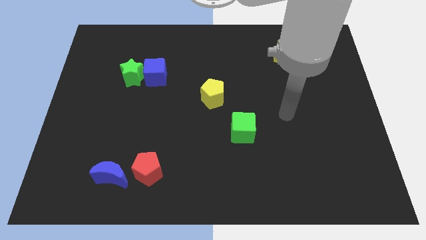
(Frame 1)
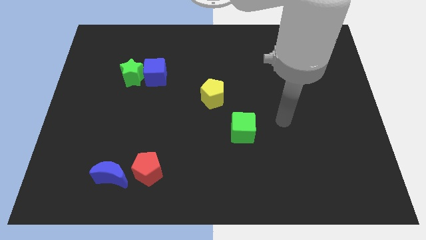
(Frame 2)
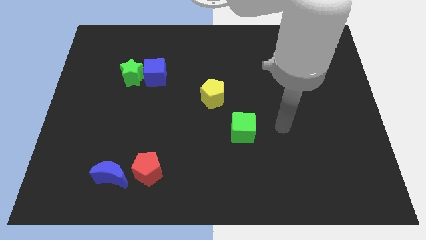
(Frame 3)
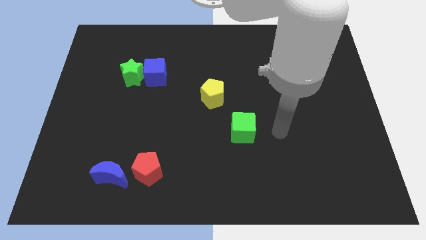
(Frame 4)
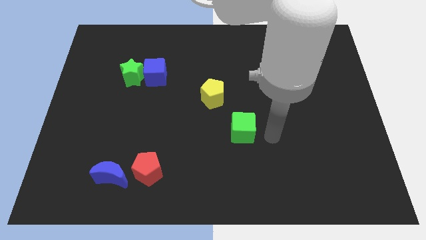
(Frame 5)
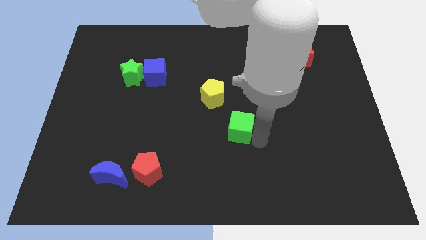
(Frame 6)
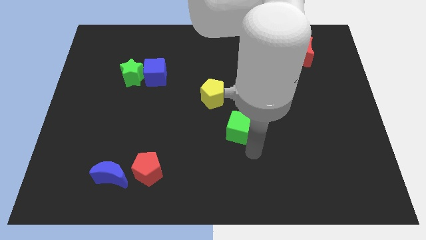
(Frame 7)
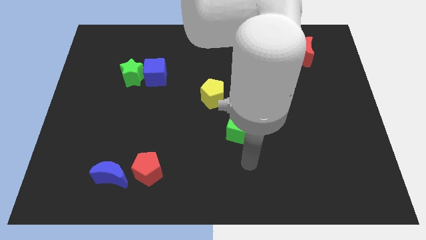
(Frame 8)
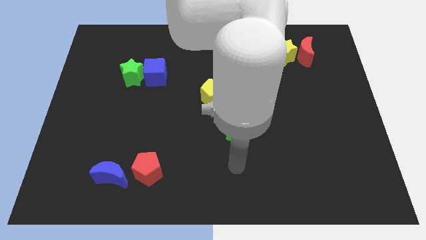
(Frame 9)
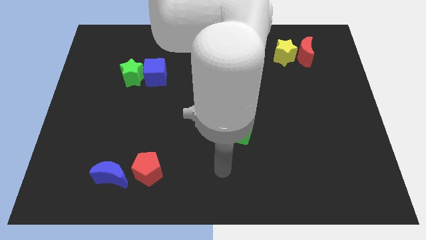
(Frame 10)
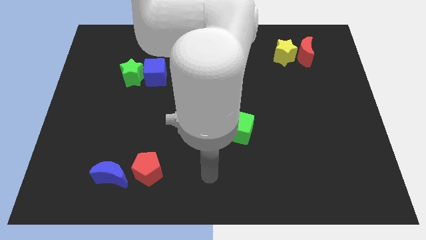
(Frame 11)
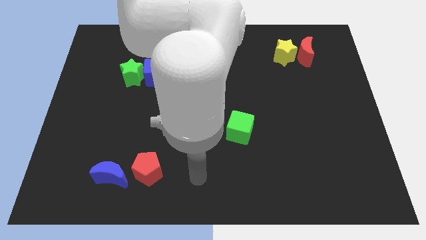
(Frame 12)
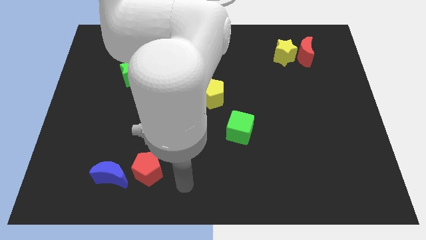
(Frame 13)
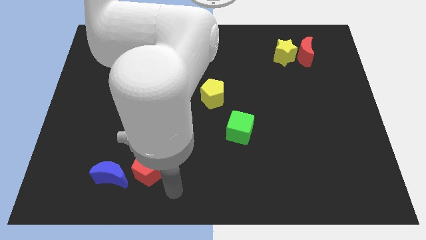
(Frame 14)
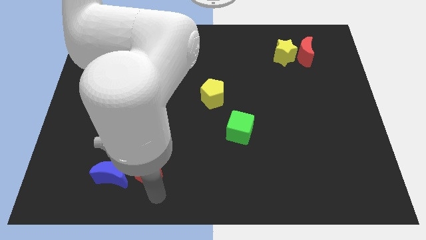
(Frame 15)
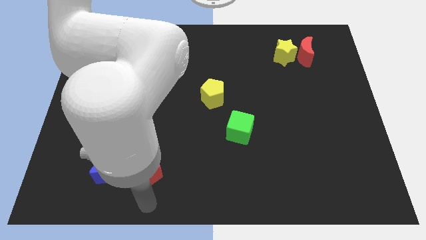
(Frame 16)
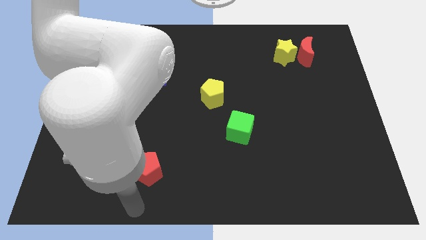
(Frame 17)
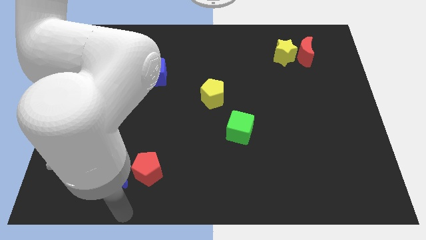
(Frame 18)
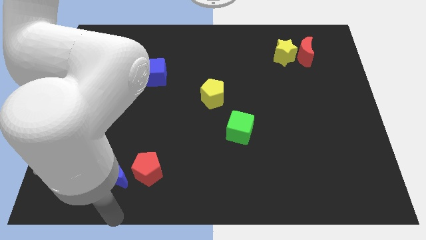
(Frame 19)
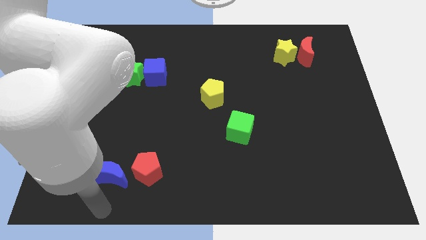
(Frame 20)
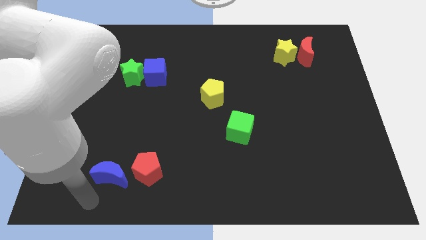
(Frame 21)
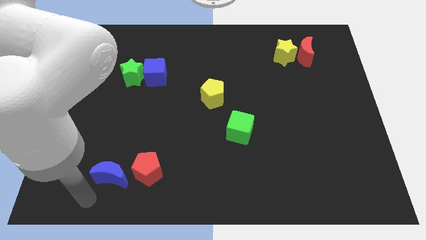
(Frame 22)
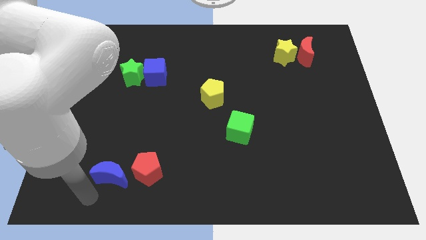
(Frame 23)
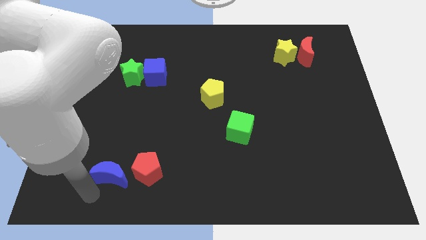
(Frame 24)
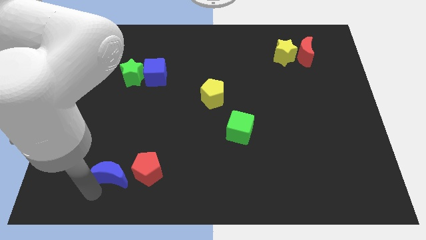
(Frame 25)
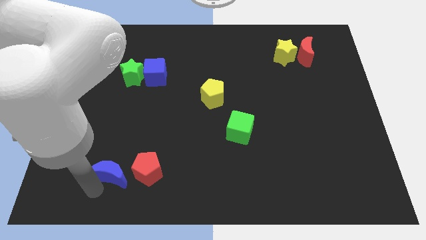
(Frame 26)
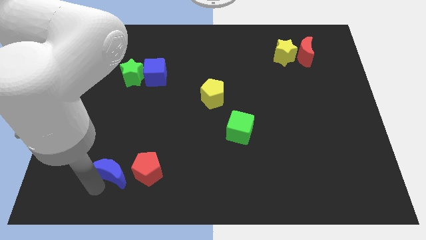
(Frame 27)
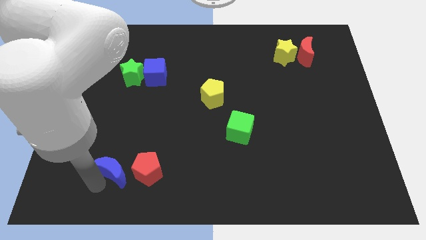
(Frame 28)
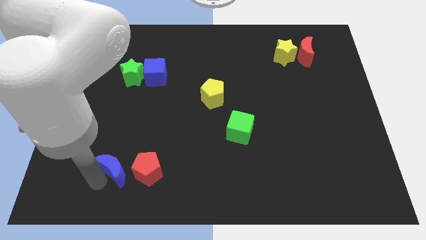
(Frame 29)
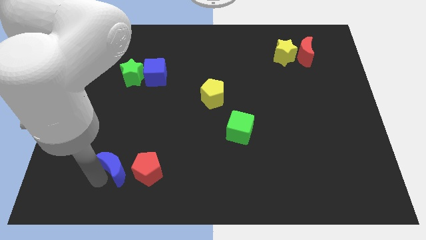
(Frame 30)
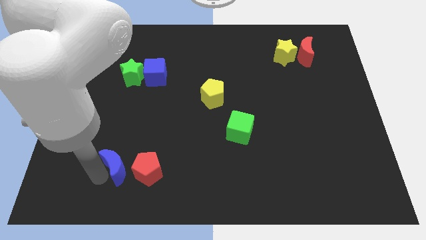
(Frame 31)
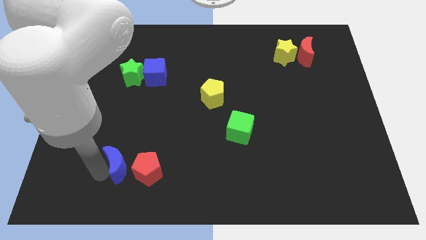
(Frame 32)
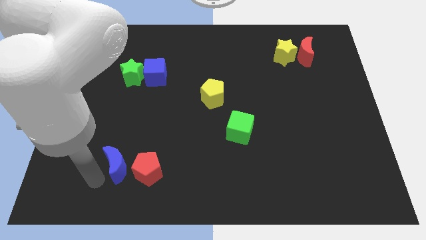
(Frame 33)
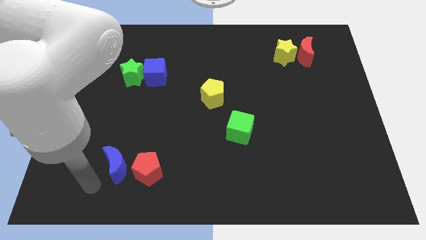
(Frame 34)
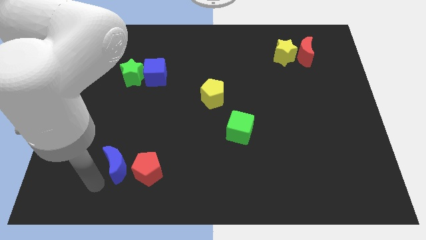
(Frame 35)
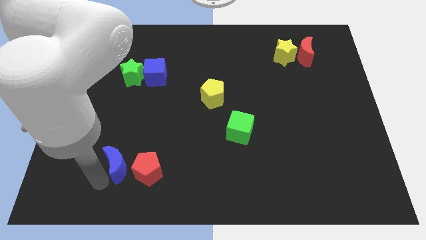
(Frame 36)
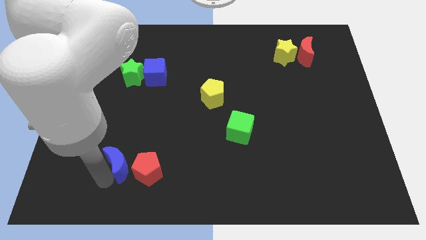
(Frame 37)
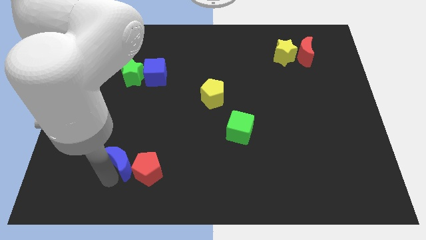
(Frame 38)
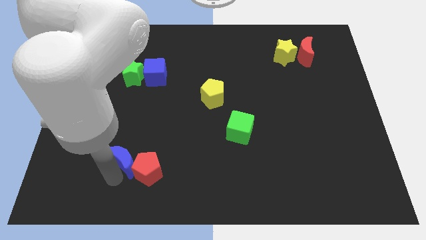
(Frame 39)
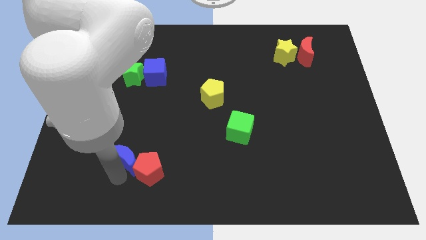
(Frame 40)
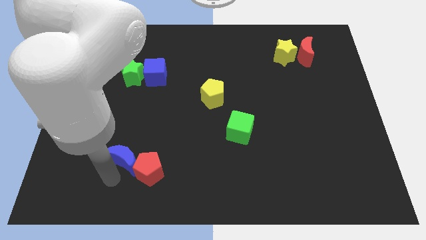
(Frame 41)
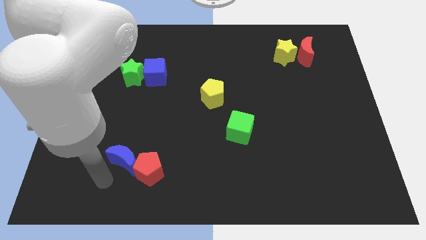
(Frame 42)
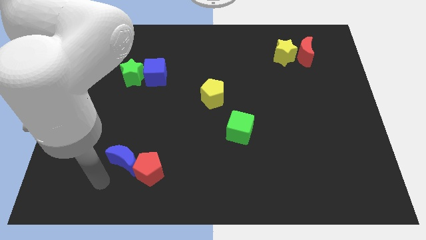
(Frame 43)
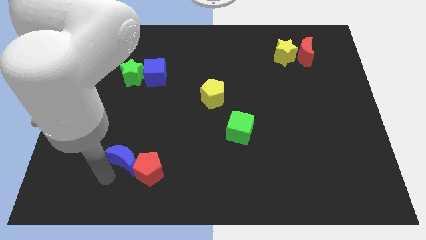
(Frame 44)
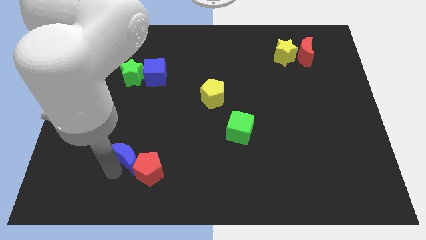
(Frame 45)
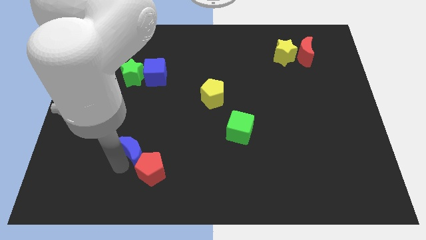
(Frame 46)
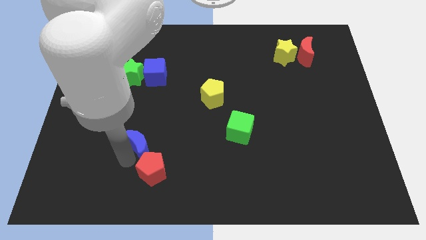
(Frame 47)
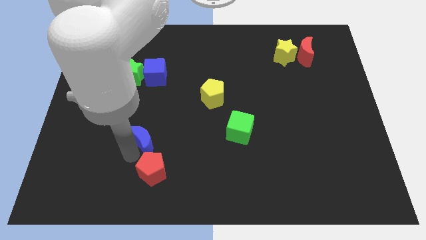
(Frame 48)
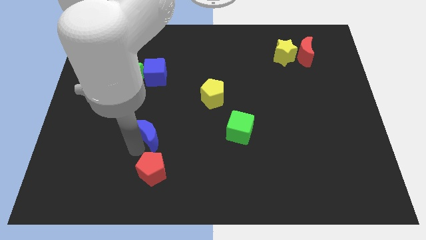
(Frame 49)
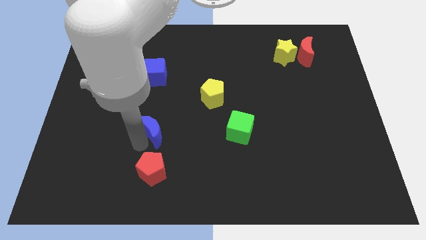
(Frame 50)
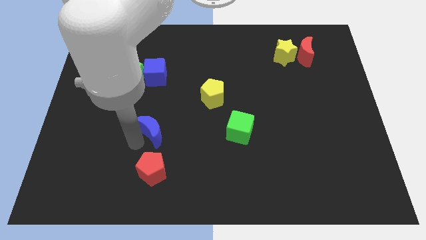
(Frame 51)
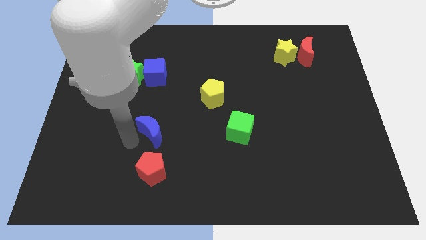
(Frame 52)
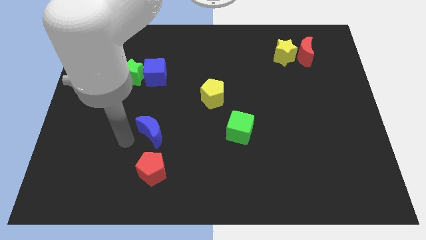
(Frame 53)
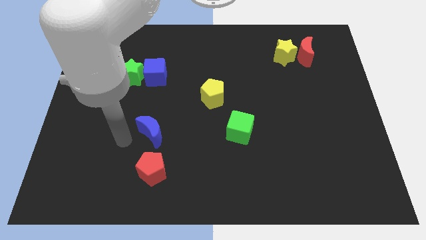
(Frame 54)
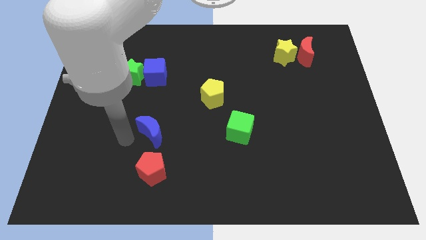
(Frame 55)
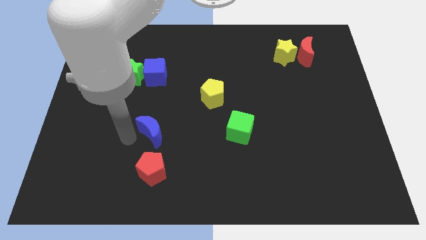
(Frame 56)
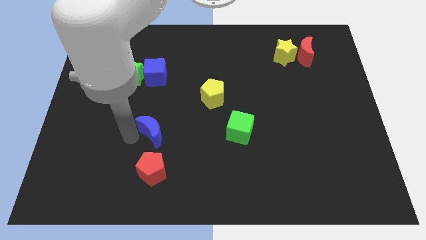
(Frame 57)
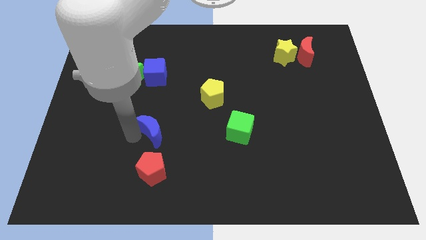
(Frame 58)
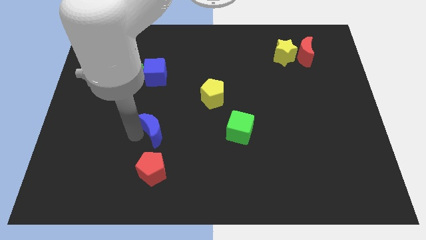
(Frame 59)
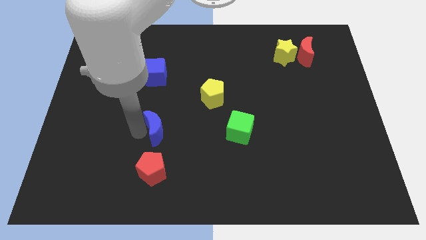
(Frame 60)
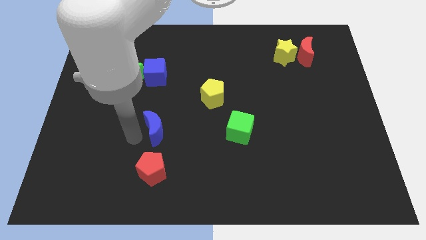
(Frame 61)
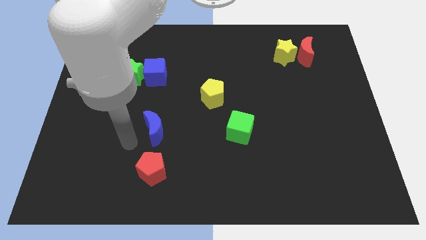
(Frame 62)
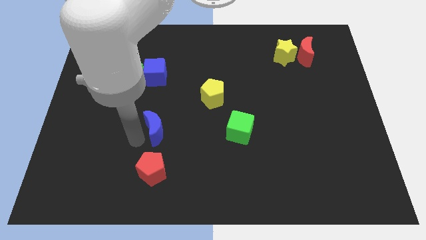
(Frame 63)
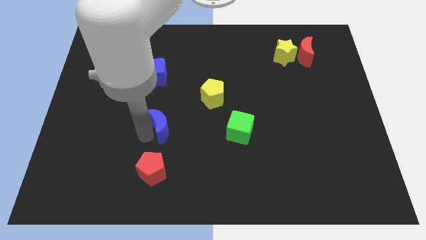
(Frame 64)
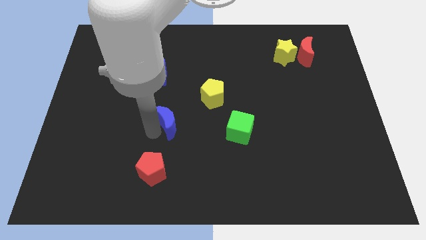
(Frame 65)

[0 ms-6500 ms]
put the blue moon to the bottom left of the yellow pentagon

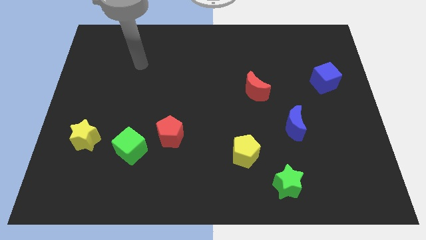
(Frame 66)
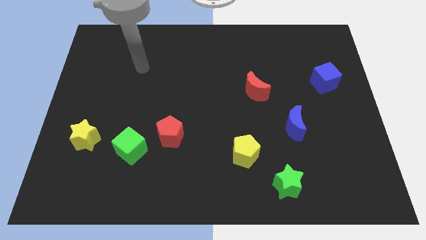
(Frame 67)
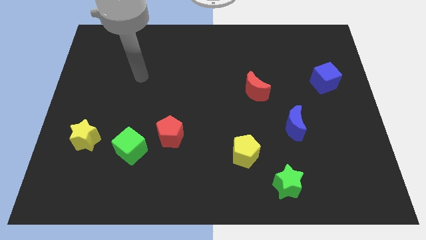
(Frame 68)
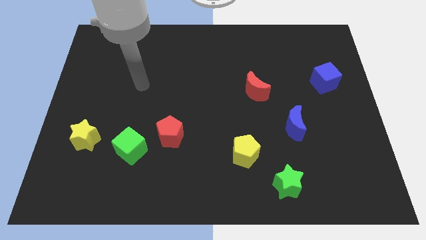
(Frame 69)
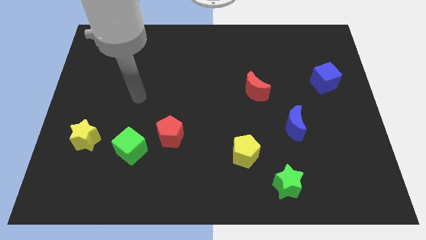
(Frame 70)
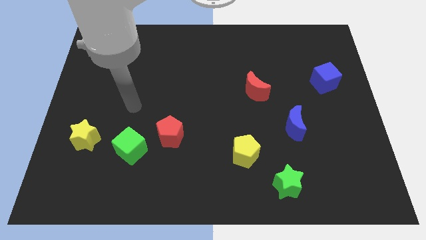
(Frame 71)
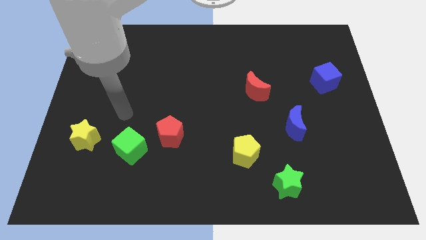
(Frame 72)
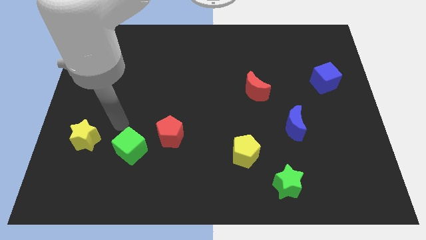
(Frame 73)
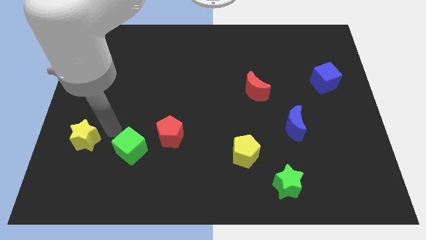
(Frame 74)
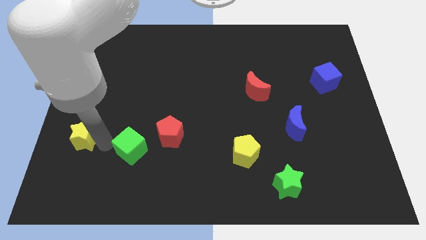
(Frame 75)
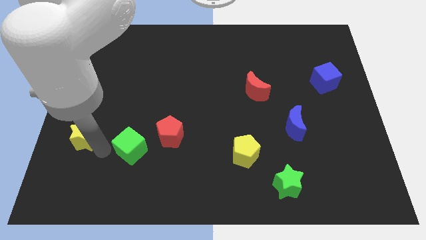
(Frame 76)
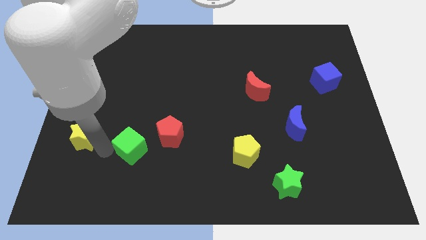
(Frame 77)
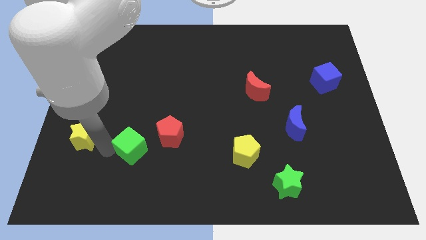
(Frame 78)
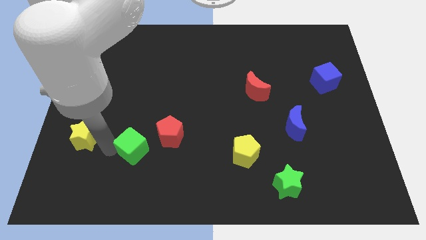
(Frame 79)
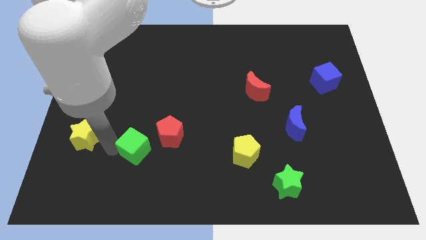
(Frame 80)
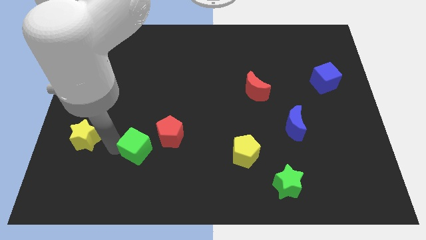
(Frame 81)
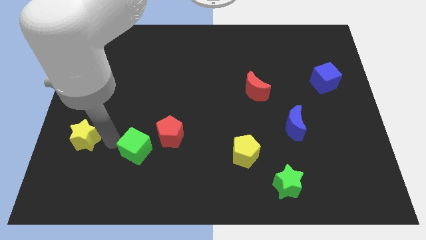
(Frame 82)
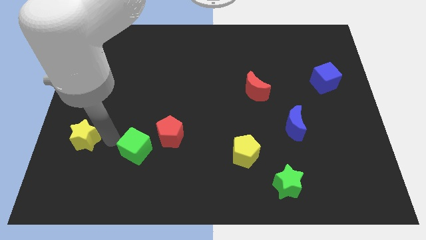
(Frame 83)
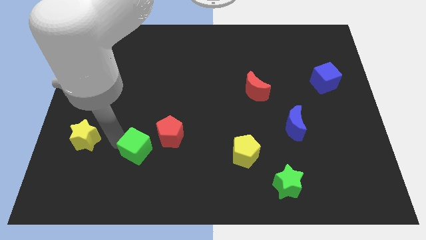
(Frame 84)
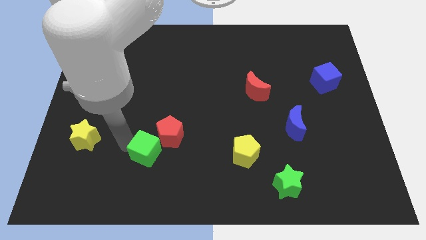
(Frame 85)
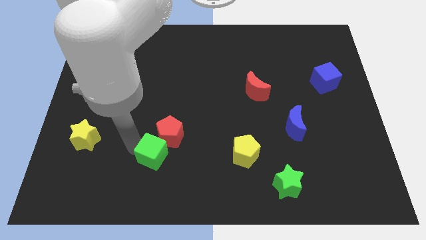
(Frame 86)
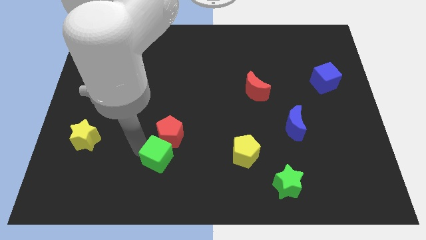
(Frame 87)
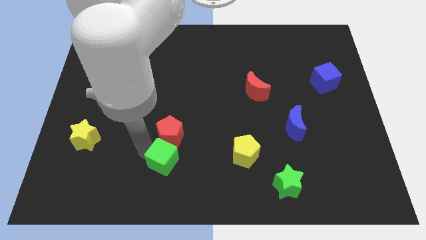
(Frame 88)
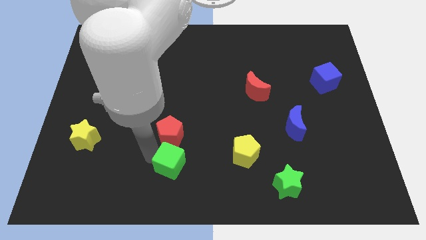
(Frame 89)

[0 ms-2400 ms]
slide the green cube to the left of the yellow pentagon
